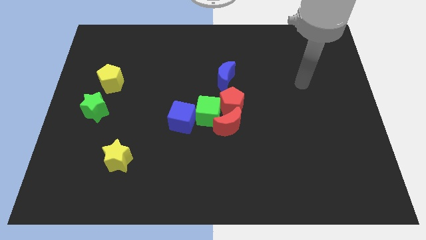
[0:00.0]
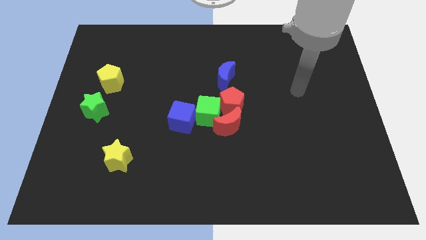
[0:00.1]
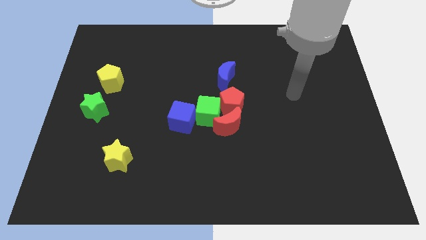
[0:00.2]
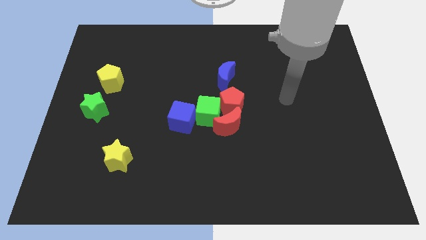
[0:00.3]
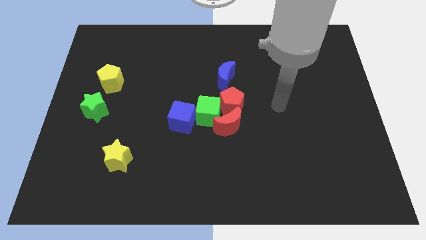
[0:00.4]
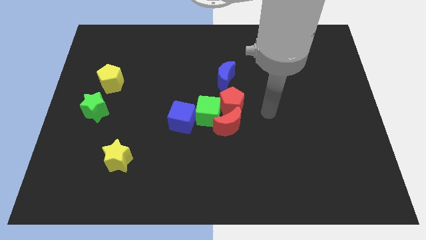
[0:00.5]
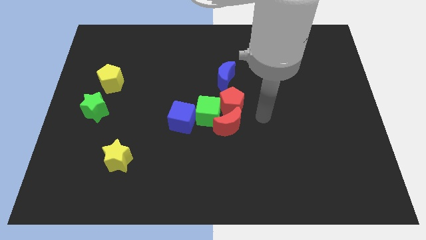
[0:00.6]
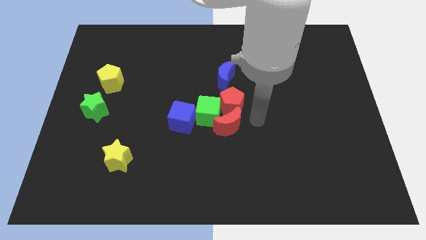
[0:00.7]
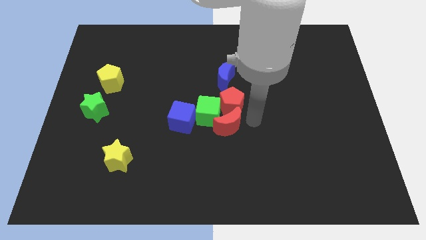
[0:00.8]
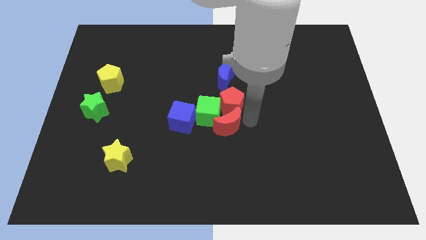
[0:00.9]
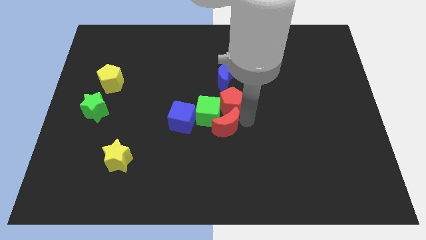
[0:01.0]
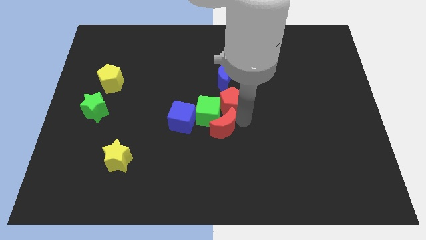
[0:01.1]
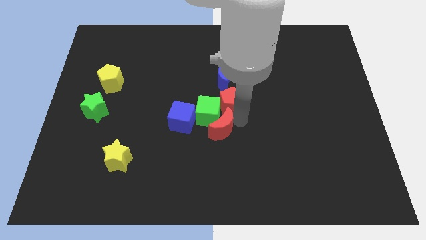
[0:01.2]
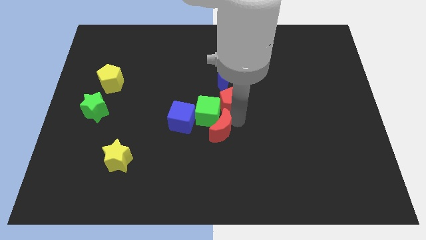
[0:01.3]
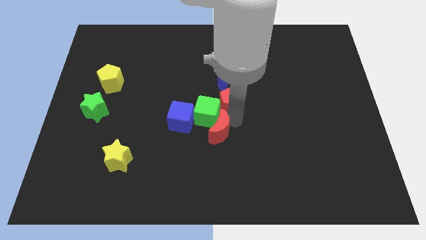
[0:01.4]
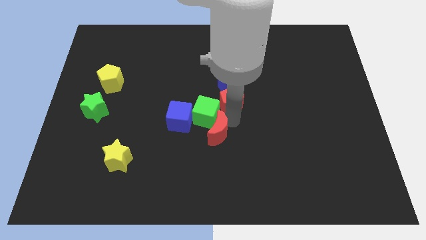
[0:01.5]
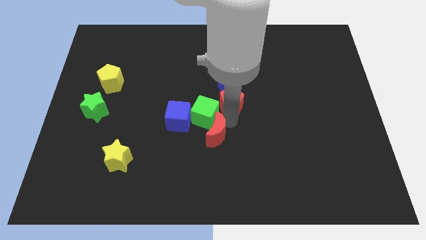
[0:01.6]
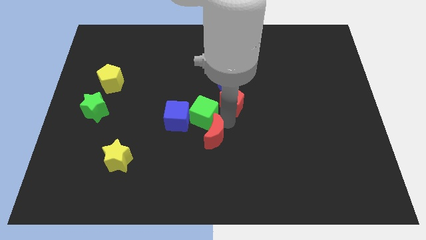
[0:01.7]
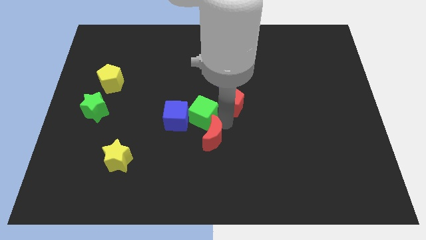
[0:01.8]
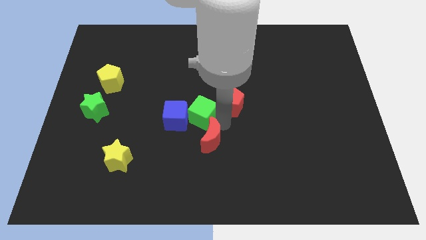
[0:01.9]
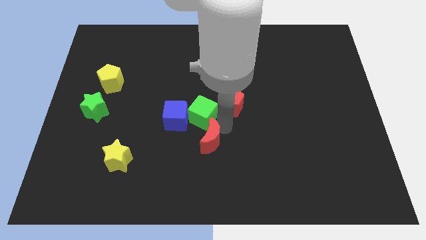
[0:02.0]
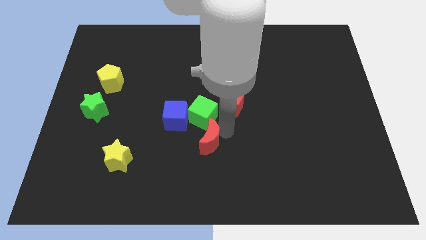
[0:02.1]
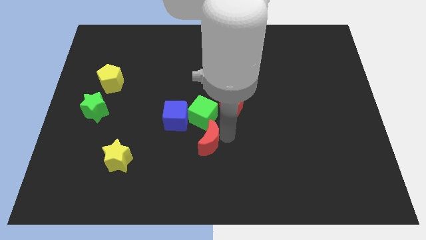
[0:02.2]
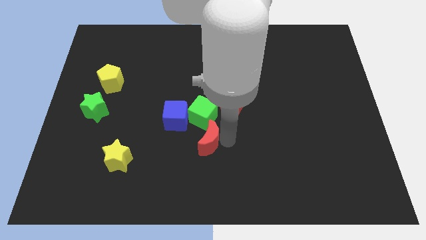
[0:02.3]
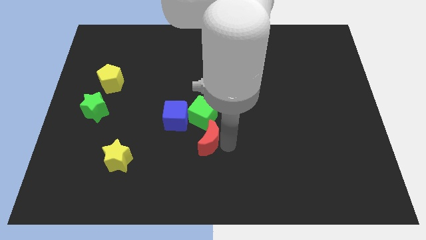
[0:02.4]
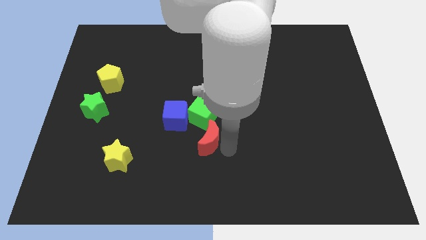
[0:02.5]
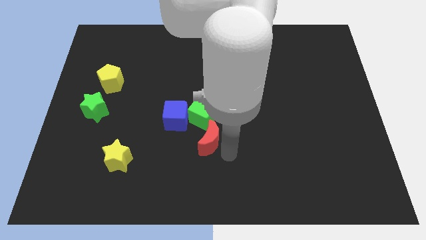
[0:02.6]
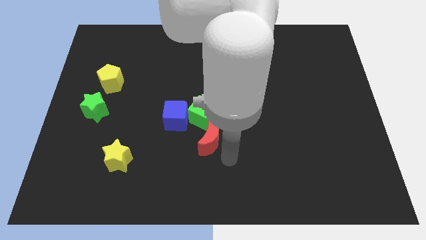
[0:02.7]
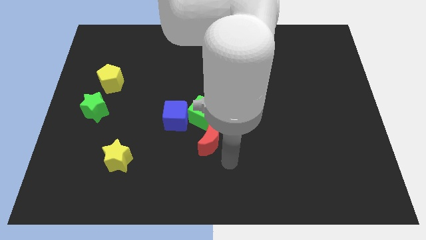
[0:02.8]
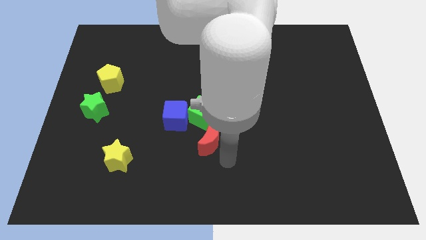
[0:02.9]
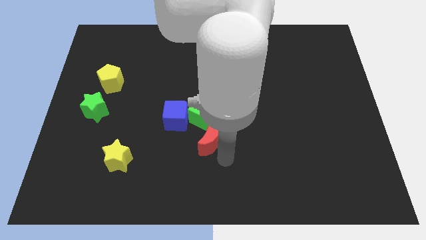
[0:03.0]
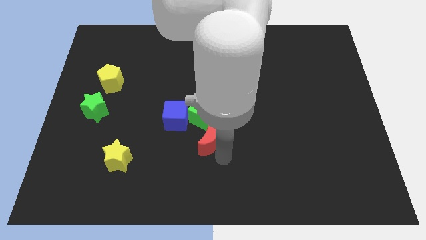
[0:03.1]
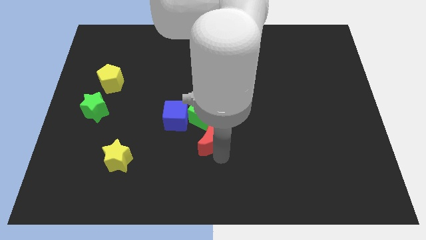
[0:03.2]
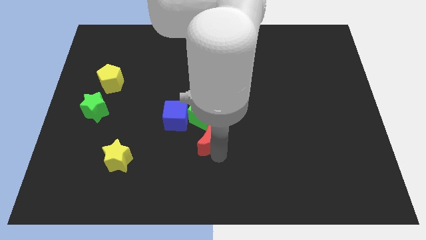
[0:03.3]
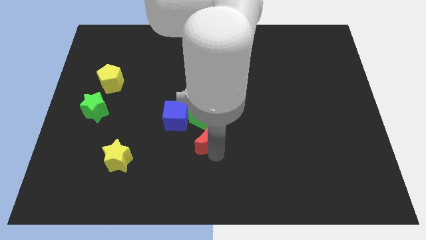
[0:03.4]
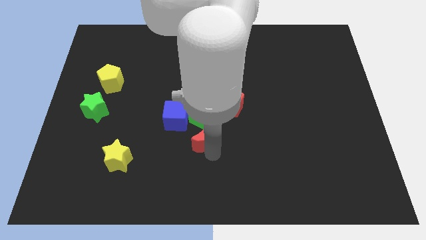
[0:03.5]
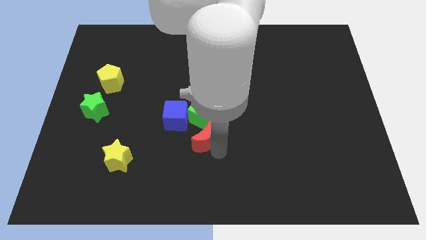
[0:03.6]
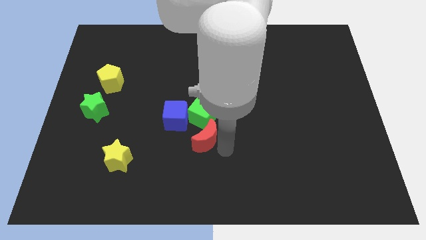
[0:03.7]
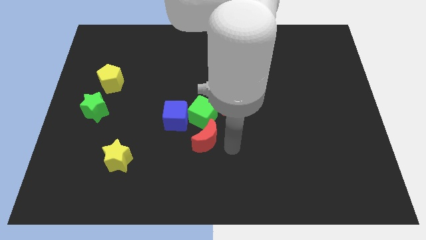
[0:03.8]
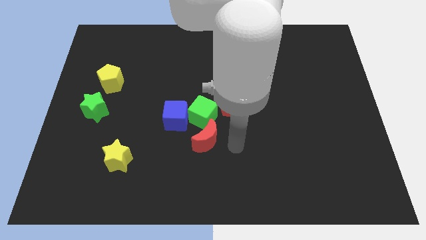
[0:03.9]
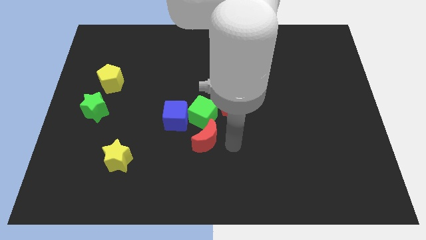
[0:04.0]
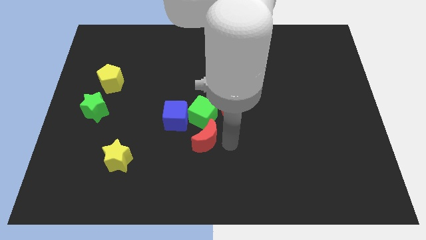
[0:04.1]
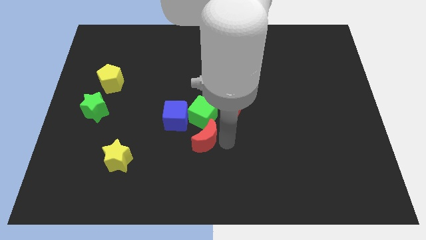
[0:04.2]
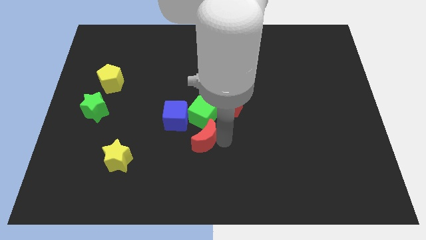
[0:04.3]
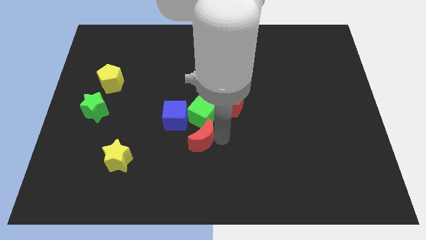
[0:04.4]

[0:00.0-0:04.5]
slide the red moon diagonally down and to the left of the green cube

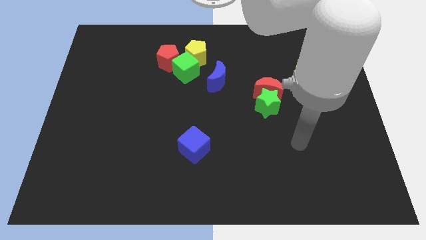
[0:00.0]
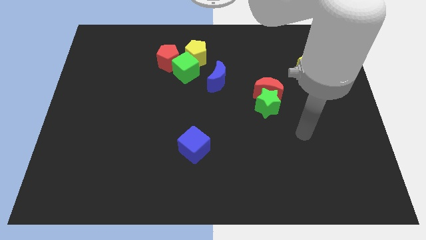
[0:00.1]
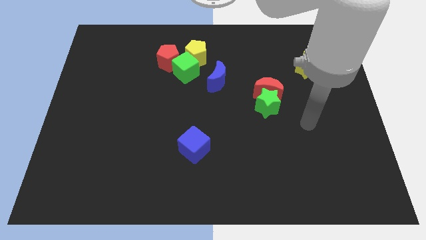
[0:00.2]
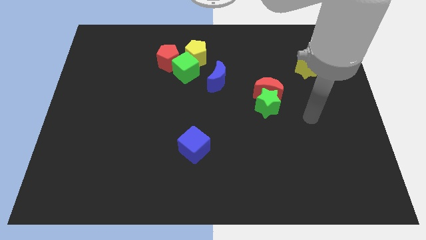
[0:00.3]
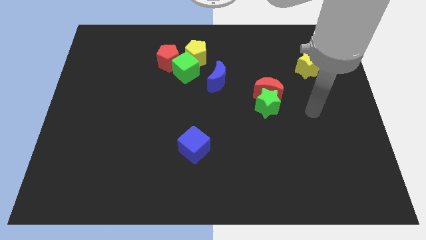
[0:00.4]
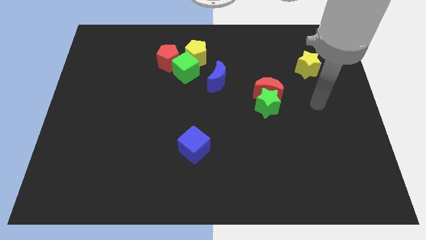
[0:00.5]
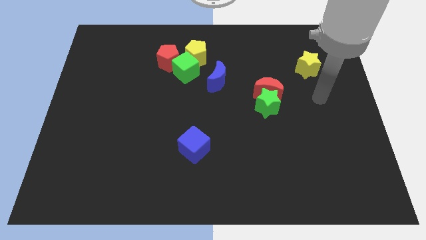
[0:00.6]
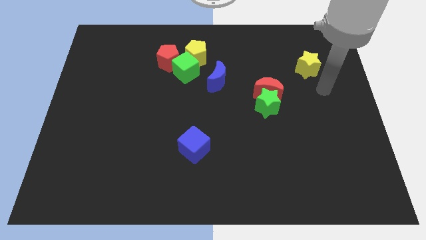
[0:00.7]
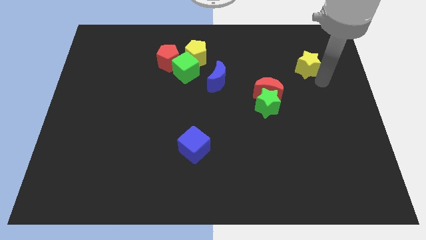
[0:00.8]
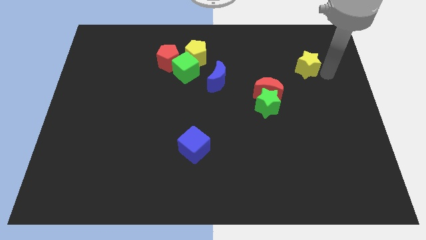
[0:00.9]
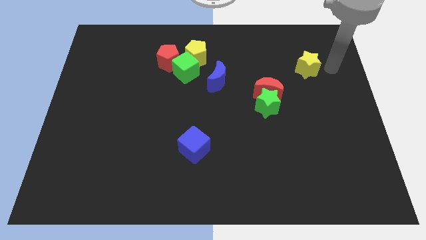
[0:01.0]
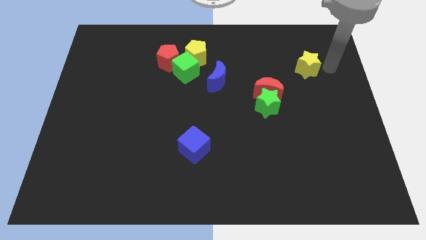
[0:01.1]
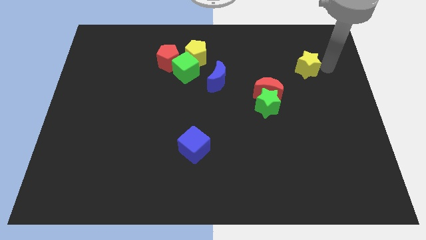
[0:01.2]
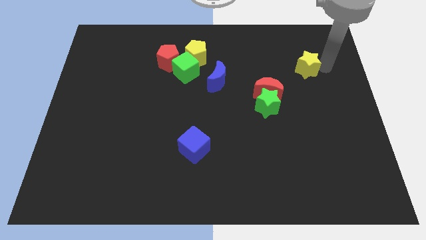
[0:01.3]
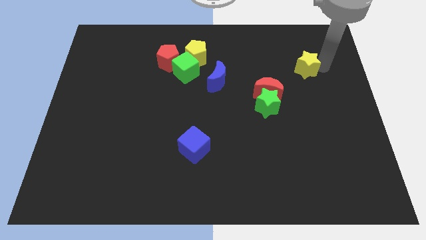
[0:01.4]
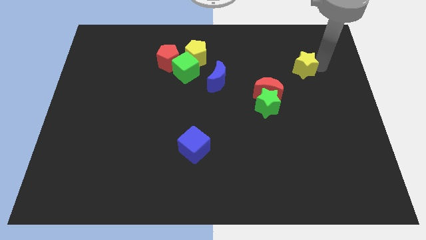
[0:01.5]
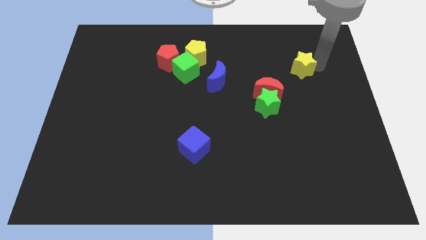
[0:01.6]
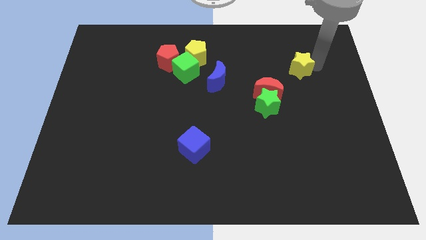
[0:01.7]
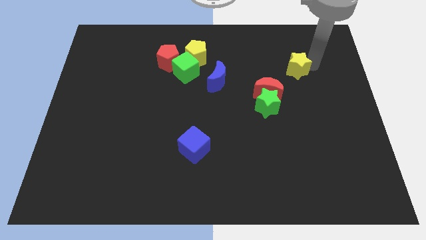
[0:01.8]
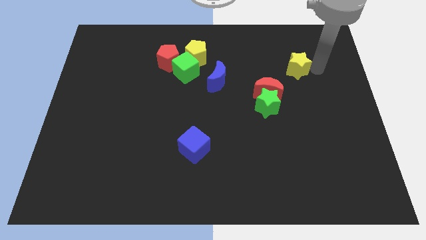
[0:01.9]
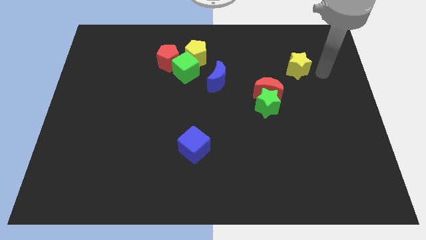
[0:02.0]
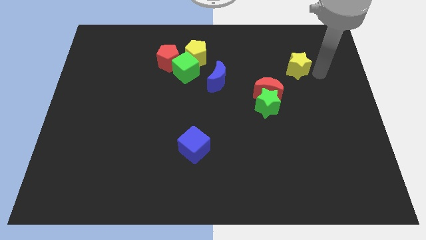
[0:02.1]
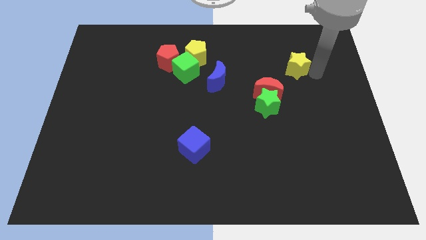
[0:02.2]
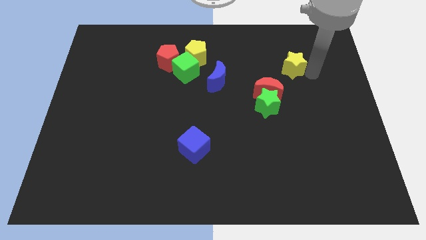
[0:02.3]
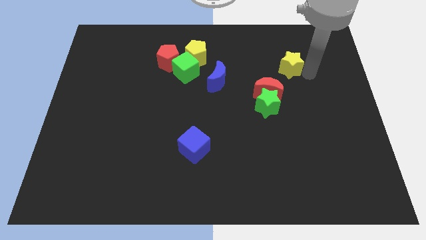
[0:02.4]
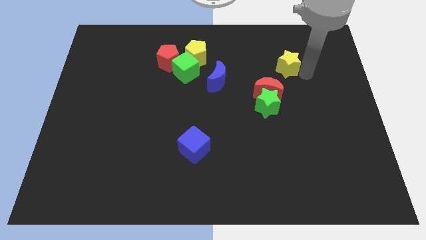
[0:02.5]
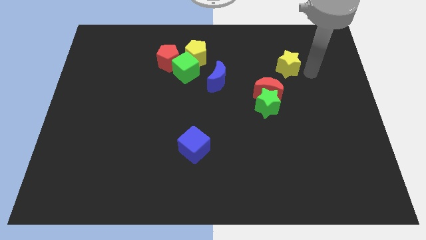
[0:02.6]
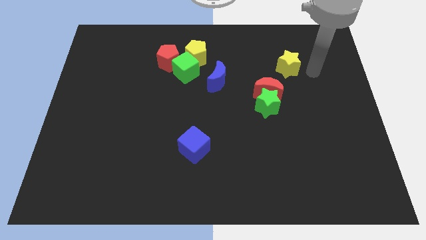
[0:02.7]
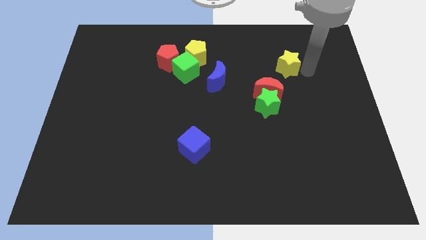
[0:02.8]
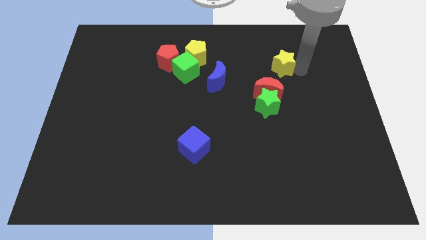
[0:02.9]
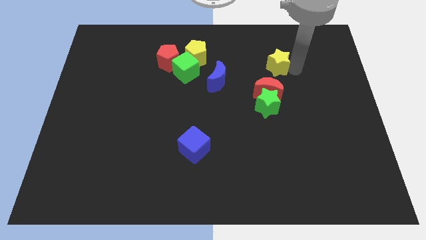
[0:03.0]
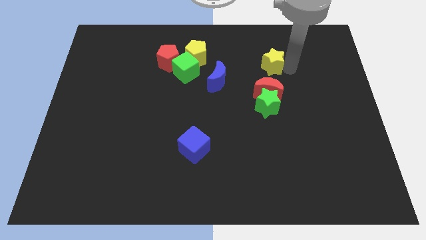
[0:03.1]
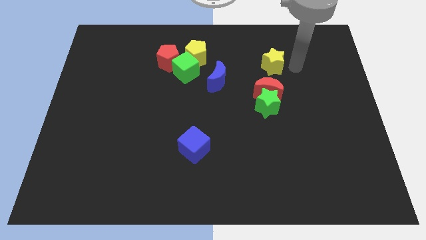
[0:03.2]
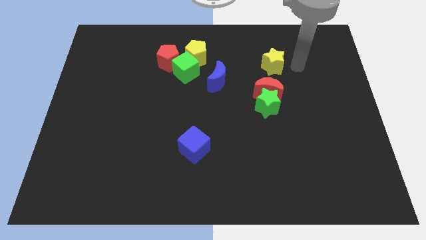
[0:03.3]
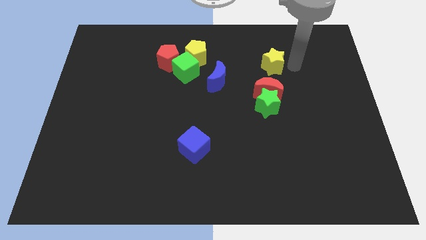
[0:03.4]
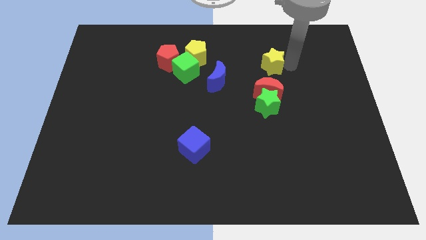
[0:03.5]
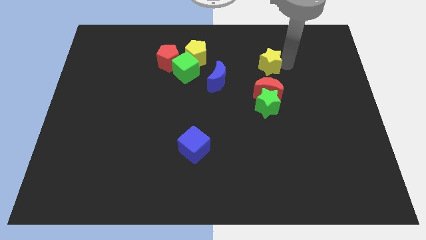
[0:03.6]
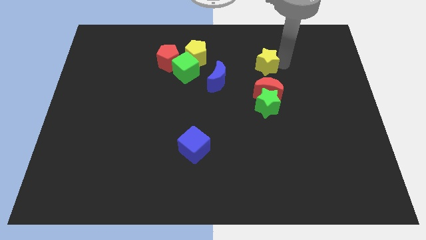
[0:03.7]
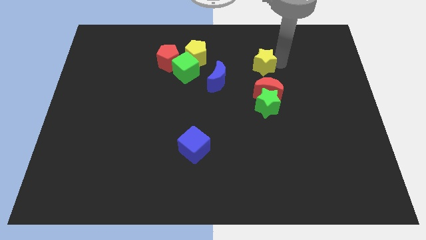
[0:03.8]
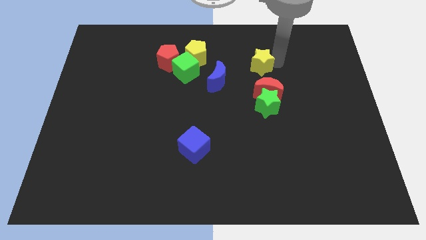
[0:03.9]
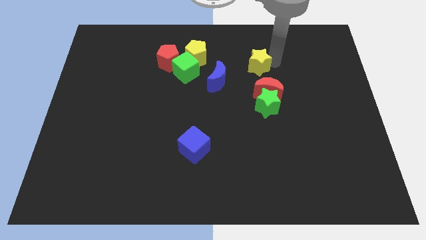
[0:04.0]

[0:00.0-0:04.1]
put the yellow star to the top right of the blue moon
